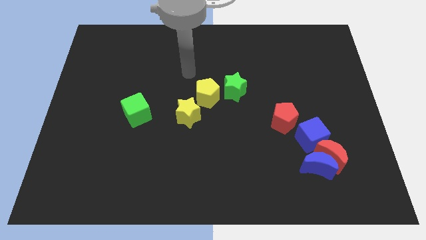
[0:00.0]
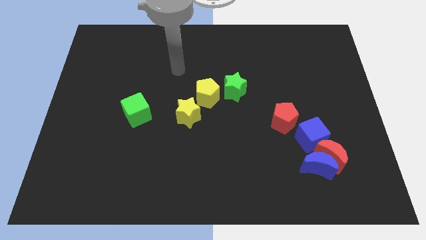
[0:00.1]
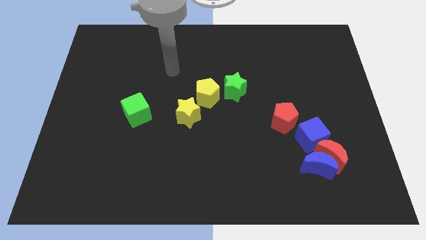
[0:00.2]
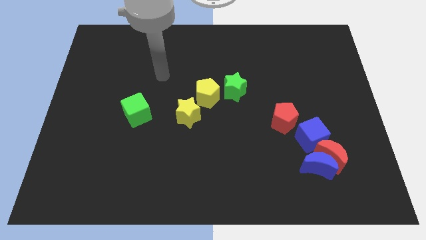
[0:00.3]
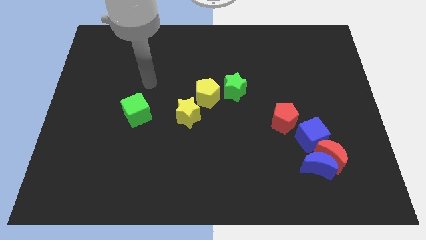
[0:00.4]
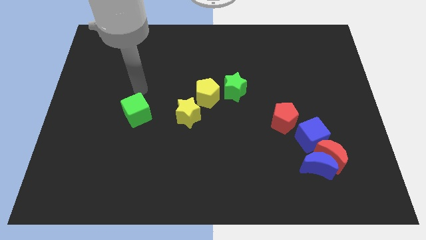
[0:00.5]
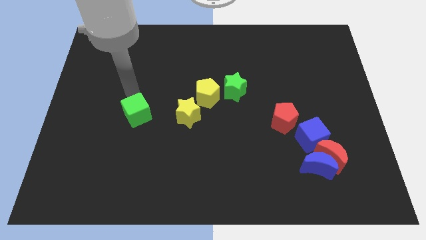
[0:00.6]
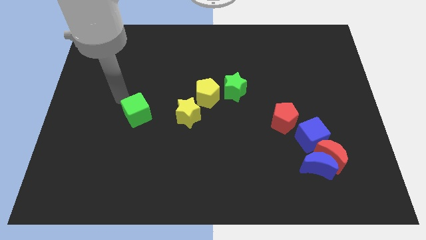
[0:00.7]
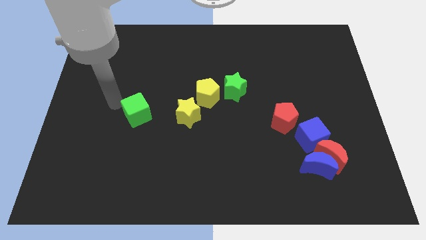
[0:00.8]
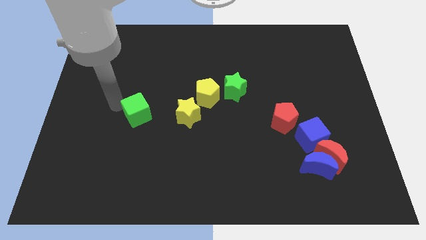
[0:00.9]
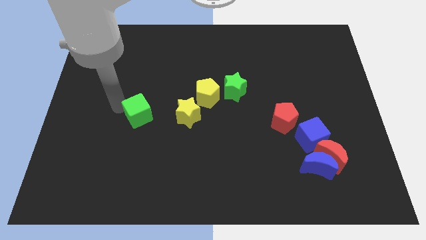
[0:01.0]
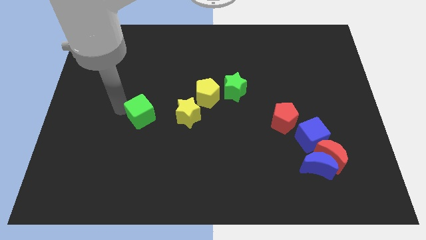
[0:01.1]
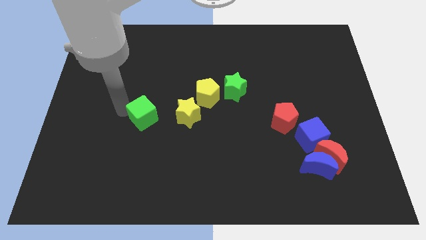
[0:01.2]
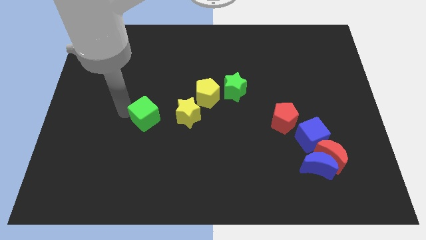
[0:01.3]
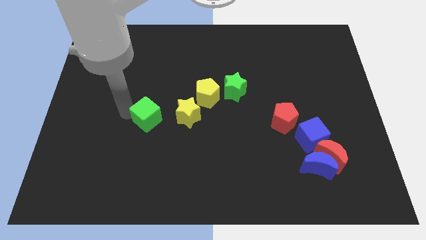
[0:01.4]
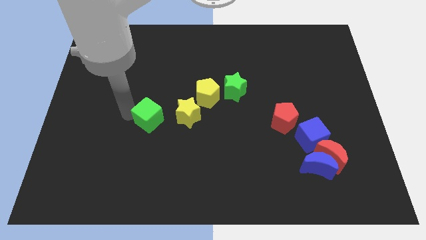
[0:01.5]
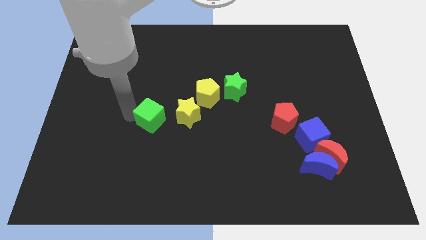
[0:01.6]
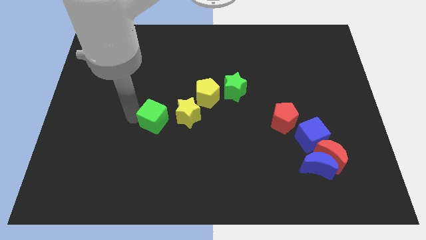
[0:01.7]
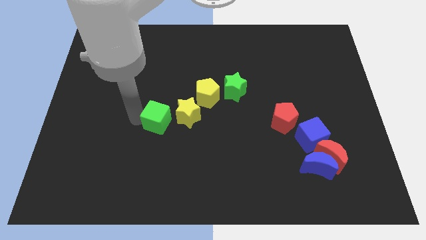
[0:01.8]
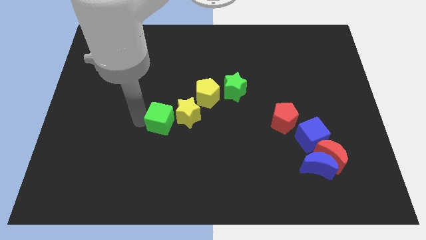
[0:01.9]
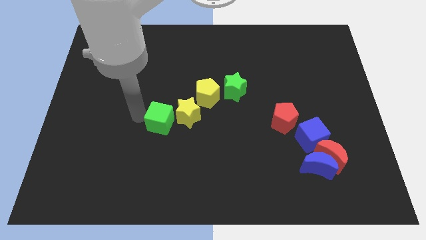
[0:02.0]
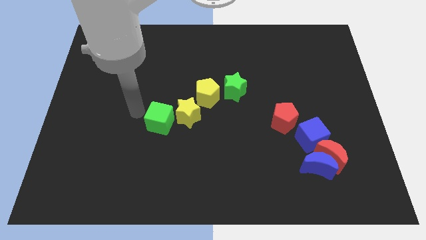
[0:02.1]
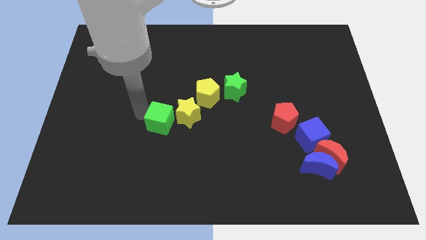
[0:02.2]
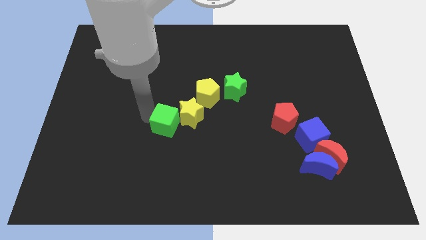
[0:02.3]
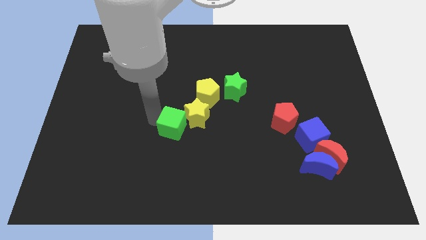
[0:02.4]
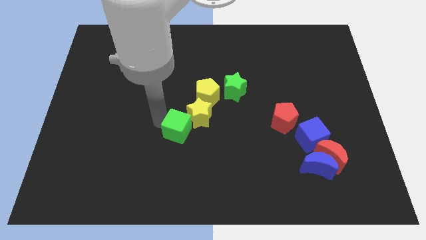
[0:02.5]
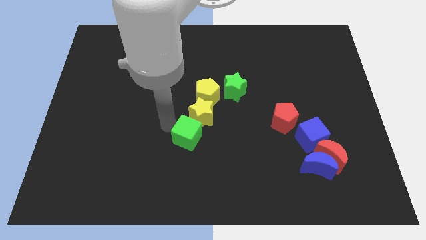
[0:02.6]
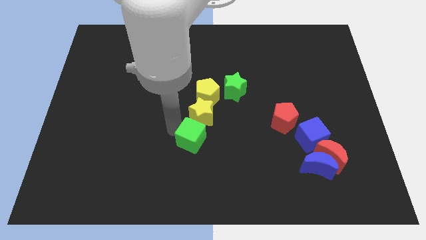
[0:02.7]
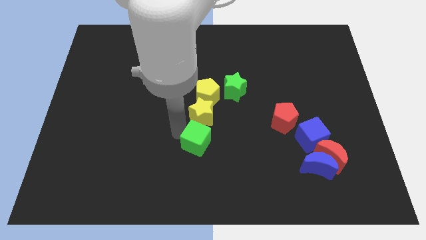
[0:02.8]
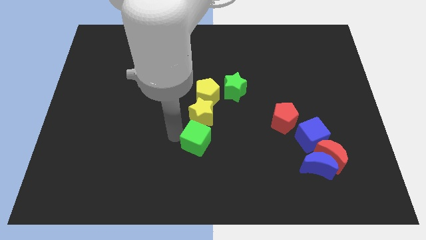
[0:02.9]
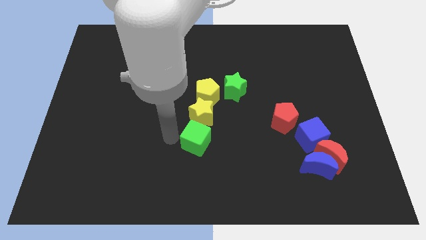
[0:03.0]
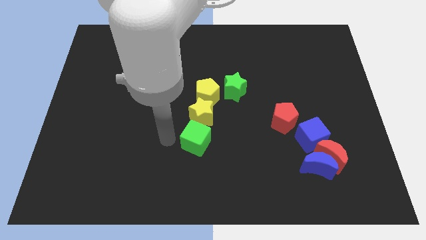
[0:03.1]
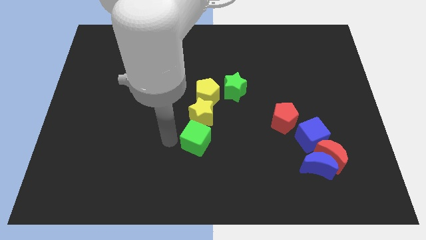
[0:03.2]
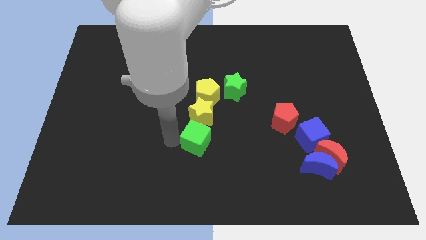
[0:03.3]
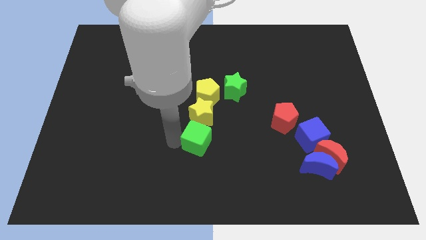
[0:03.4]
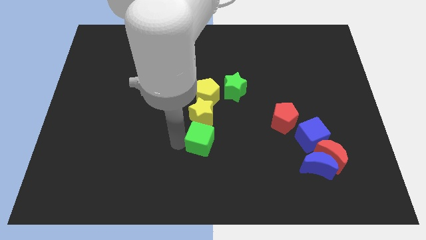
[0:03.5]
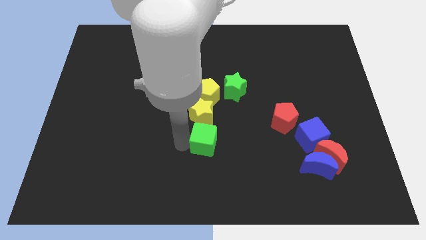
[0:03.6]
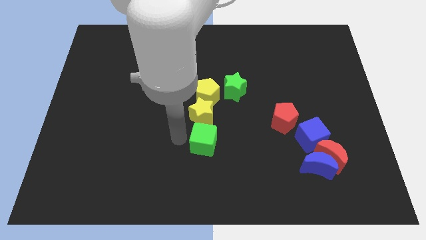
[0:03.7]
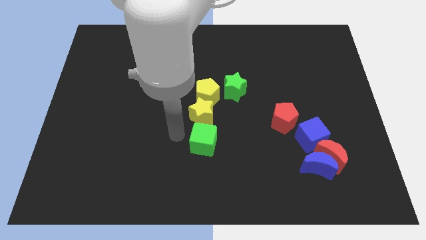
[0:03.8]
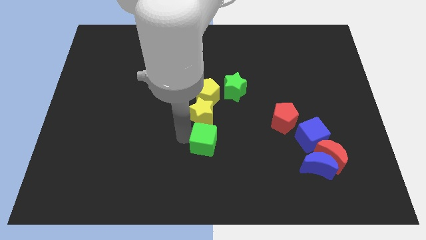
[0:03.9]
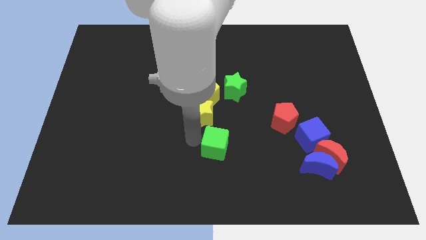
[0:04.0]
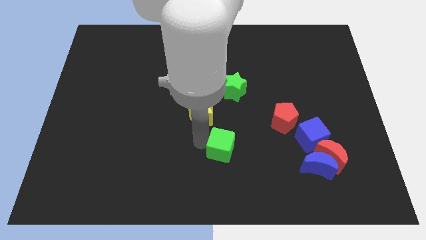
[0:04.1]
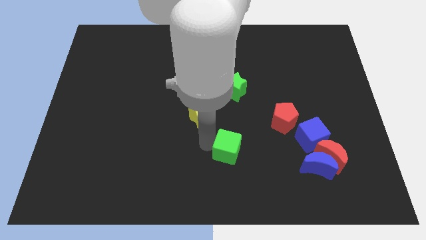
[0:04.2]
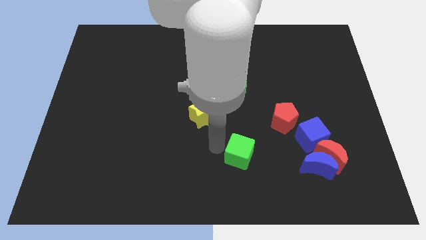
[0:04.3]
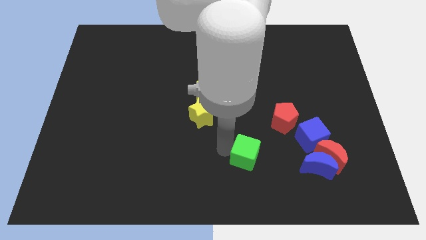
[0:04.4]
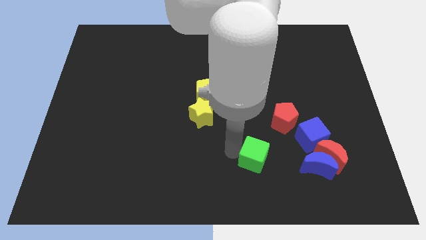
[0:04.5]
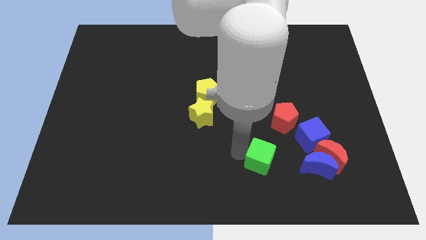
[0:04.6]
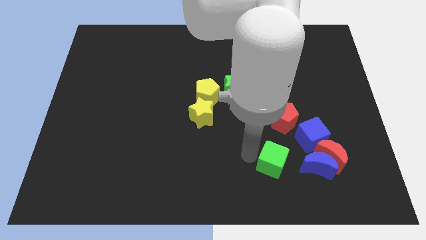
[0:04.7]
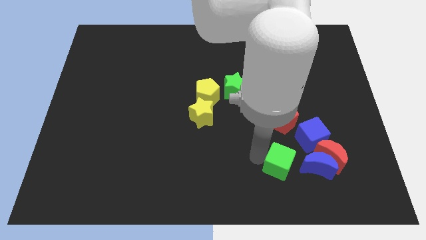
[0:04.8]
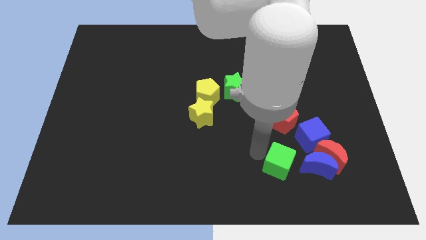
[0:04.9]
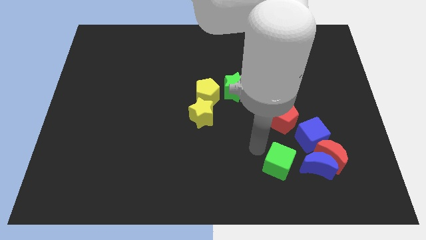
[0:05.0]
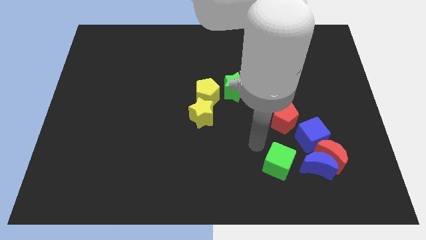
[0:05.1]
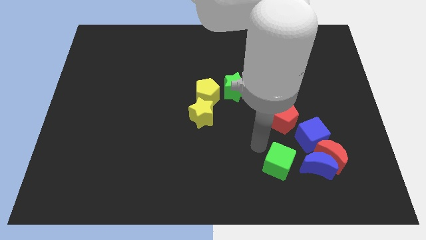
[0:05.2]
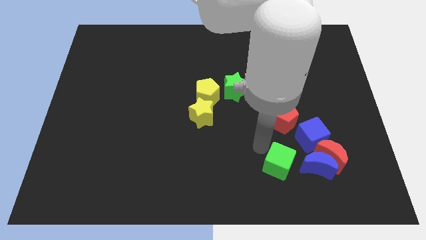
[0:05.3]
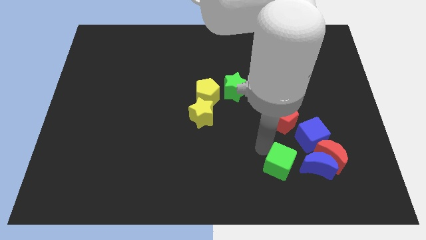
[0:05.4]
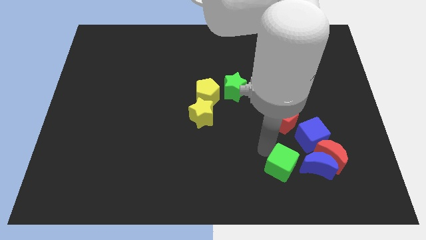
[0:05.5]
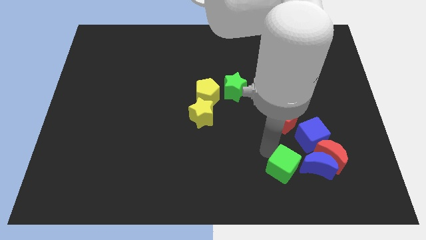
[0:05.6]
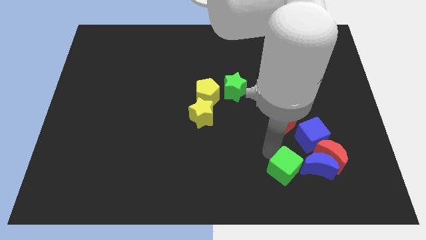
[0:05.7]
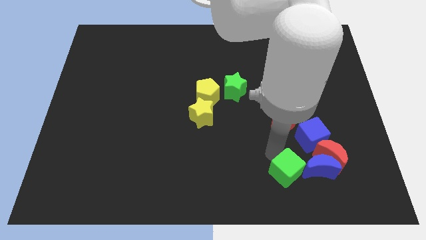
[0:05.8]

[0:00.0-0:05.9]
put the green cube diagonally down and to the left of the red moon

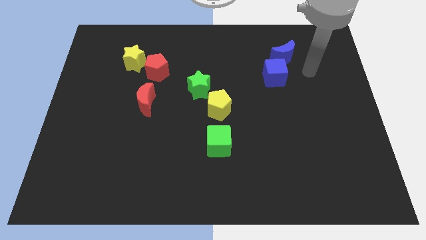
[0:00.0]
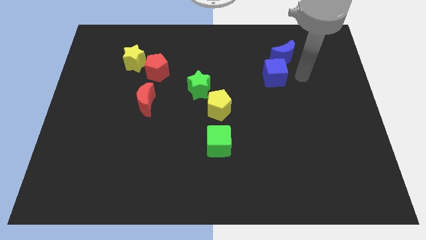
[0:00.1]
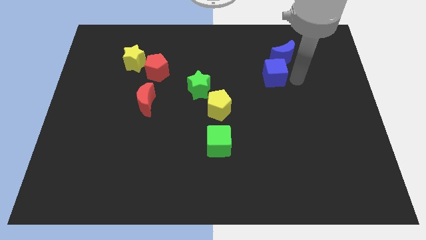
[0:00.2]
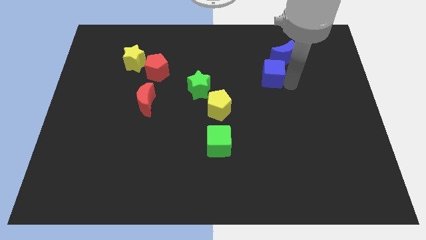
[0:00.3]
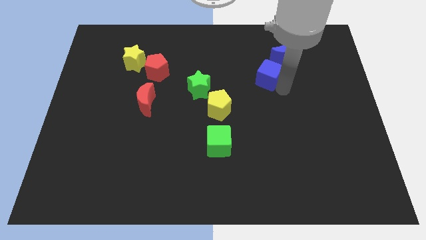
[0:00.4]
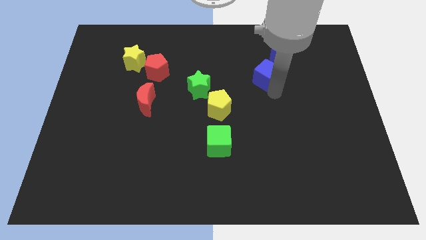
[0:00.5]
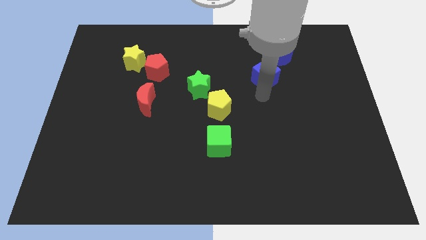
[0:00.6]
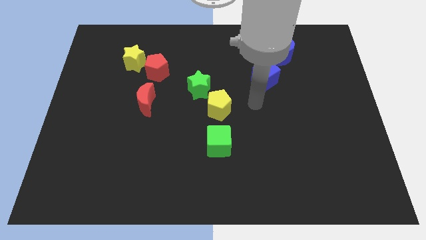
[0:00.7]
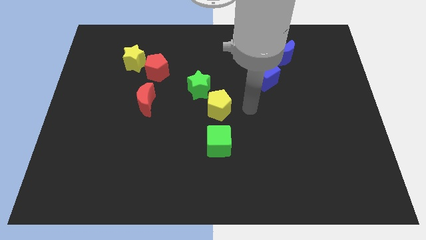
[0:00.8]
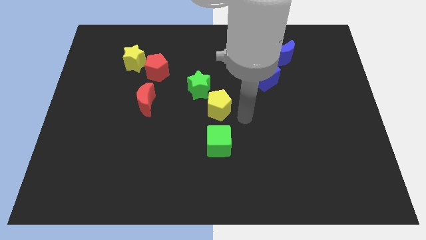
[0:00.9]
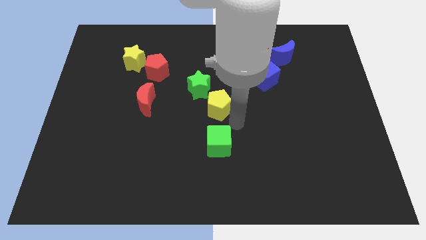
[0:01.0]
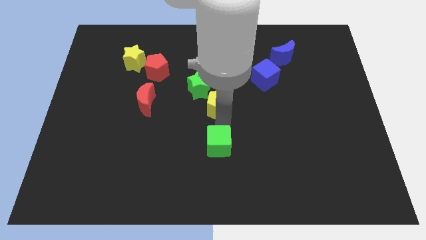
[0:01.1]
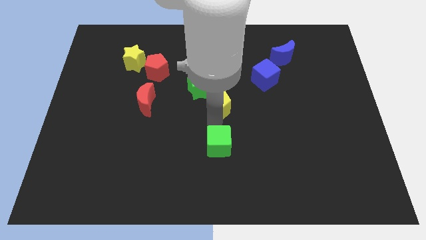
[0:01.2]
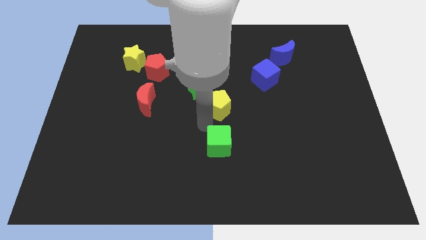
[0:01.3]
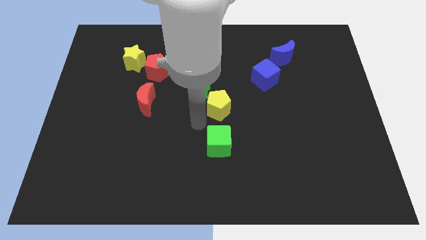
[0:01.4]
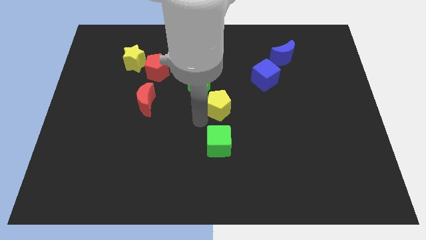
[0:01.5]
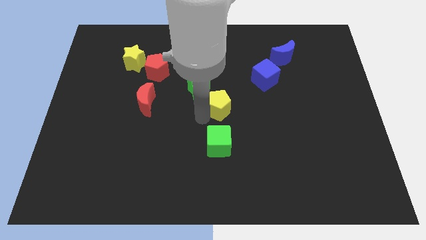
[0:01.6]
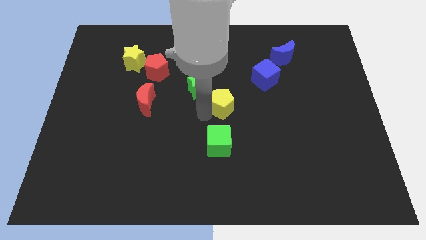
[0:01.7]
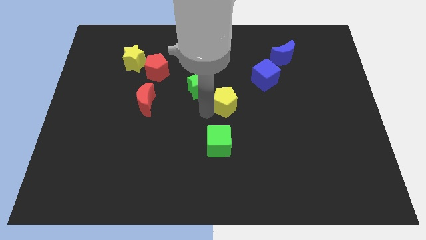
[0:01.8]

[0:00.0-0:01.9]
move the yellow pentagon right of the green star
